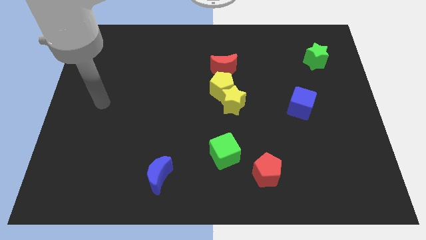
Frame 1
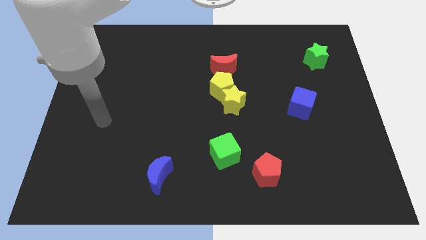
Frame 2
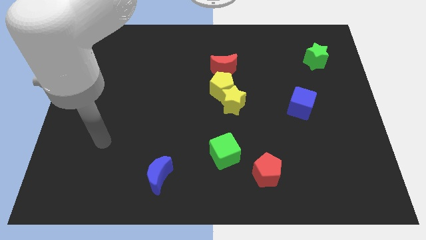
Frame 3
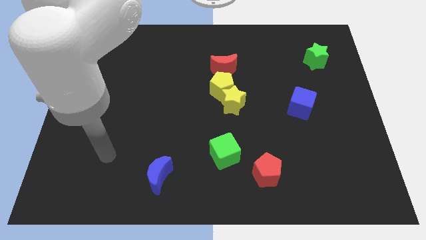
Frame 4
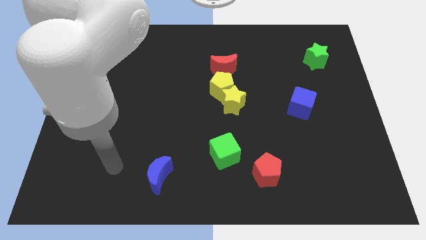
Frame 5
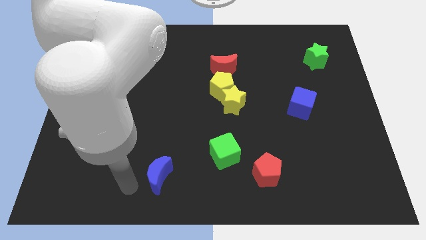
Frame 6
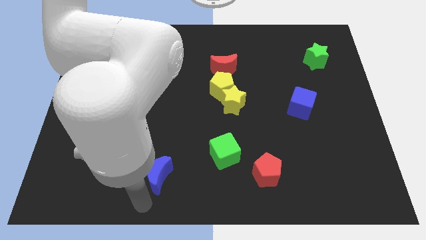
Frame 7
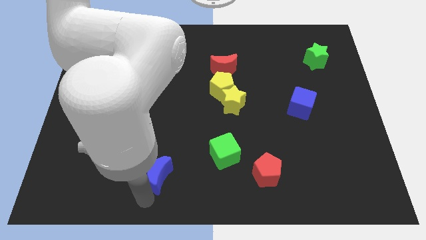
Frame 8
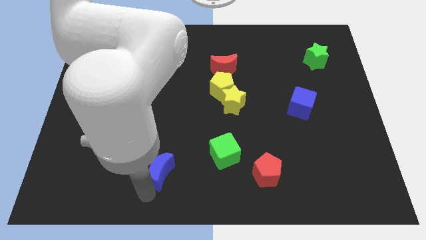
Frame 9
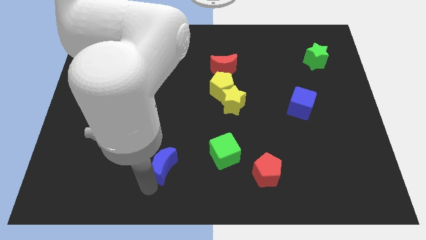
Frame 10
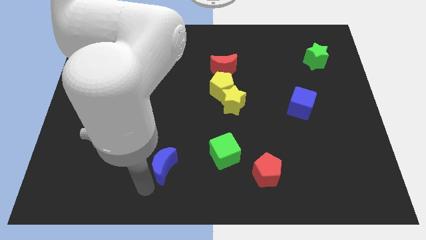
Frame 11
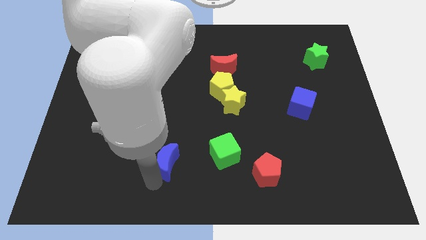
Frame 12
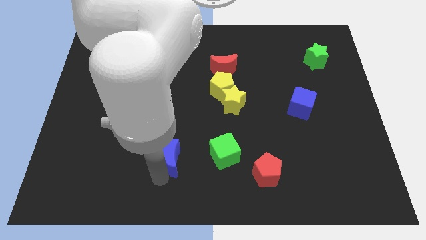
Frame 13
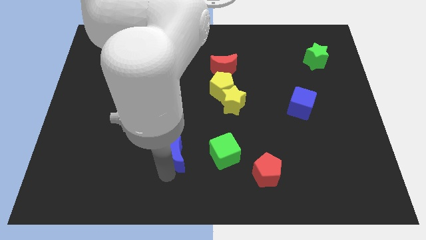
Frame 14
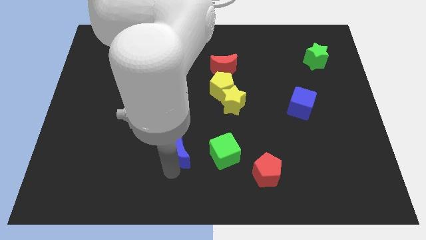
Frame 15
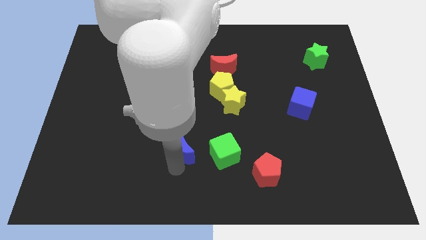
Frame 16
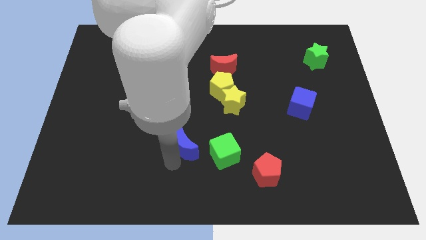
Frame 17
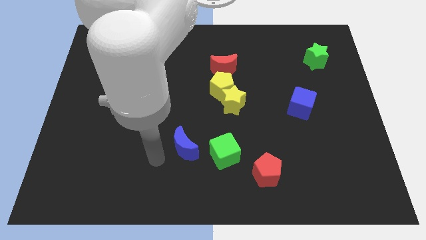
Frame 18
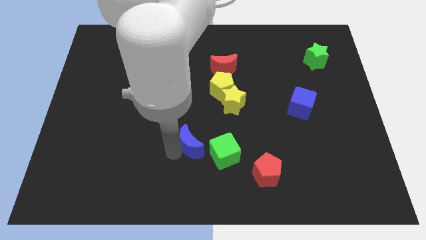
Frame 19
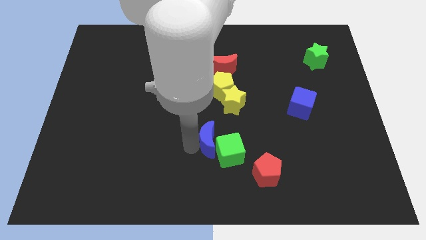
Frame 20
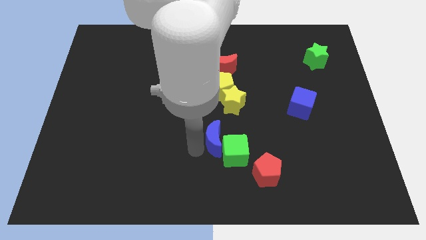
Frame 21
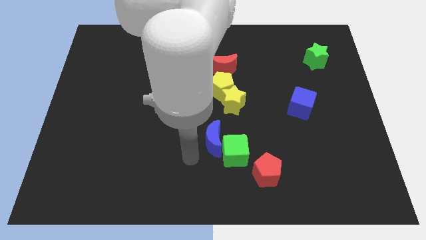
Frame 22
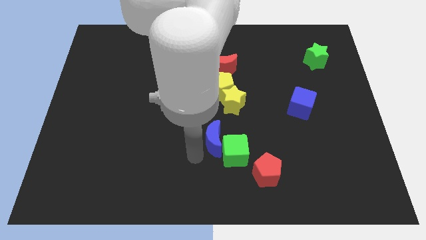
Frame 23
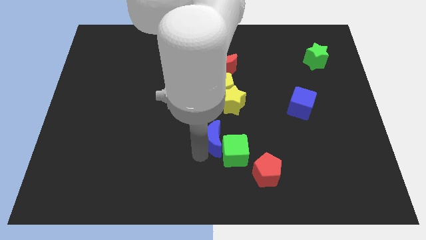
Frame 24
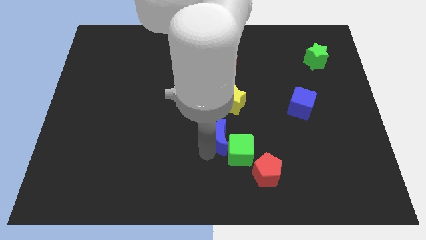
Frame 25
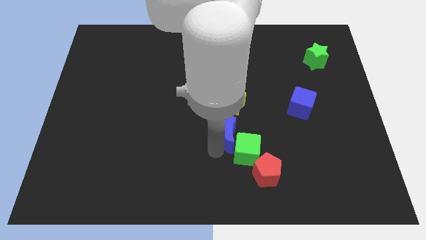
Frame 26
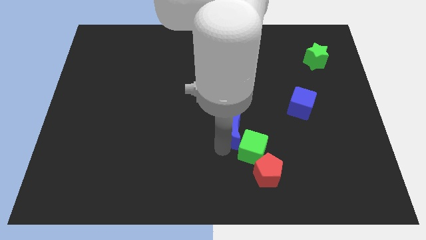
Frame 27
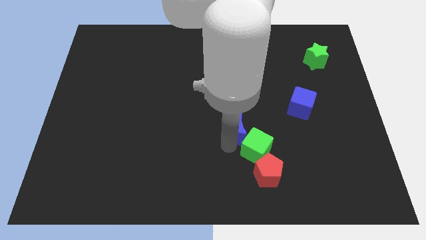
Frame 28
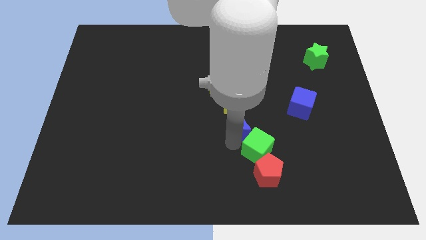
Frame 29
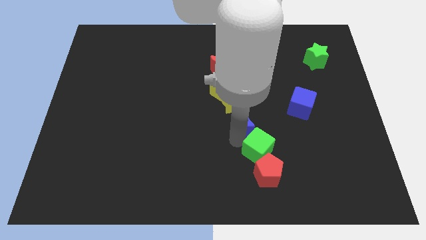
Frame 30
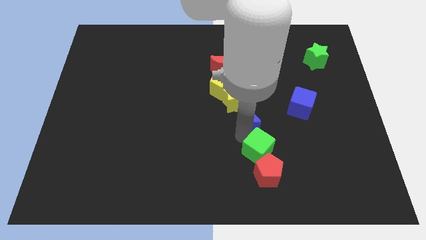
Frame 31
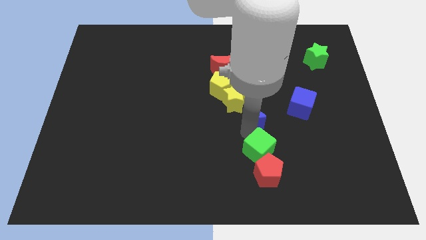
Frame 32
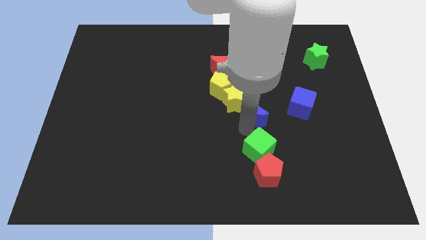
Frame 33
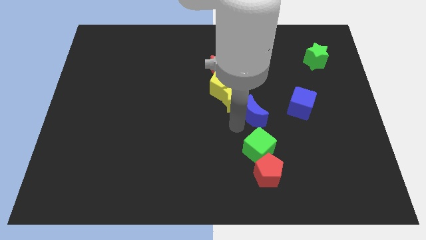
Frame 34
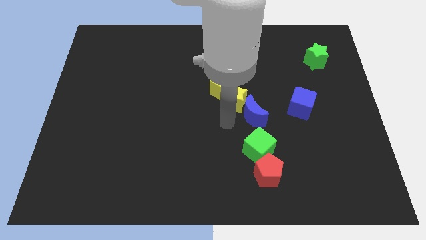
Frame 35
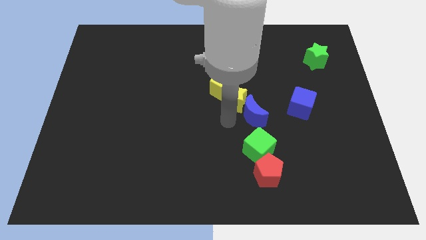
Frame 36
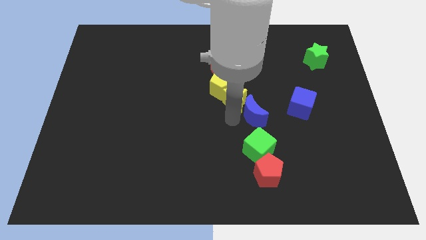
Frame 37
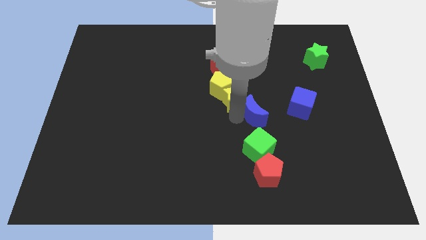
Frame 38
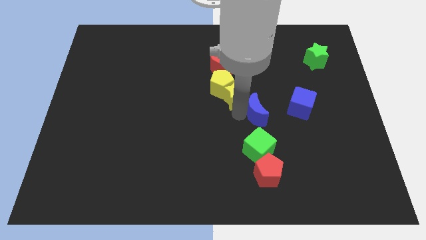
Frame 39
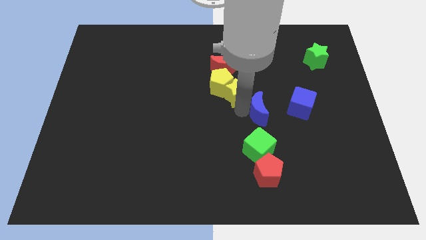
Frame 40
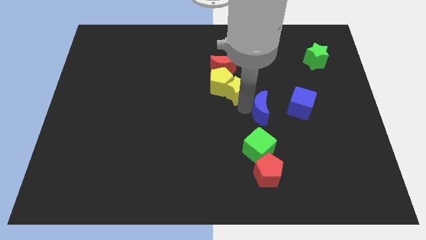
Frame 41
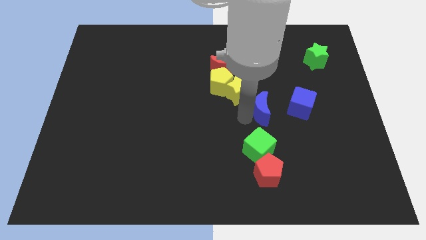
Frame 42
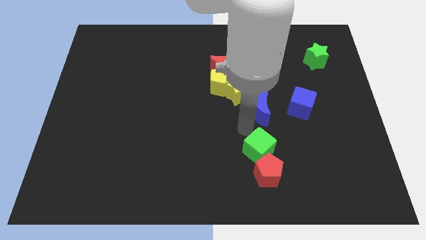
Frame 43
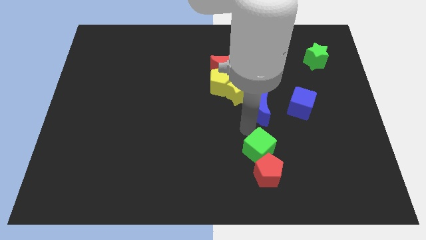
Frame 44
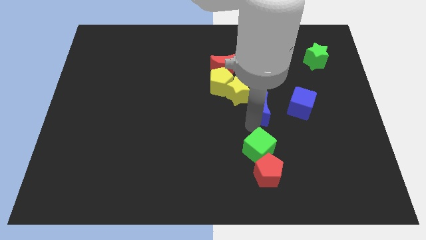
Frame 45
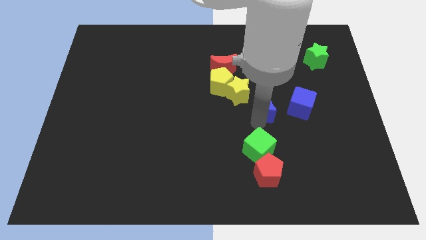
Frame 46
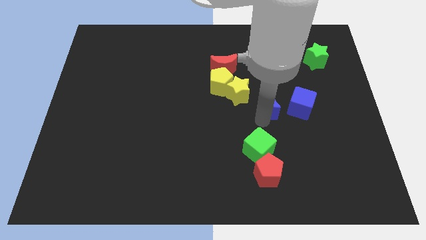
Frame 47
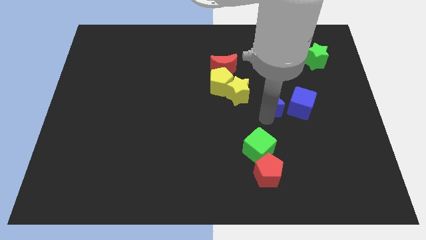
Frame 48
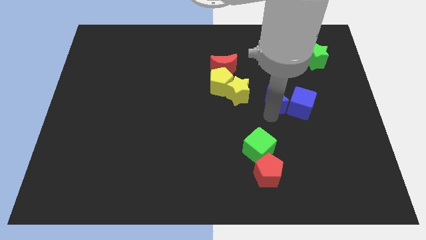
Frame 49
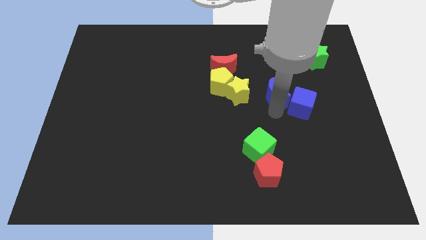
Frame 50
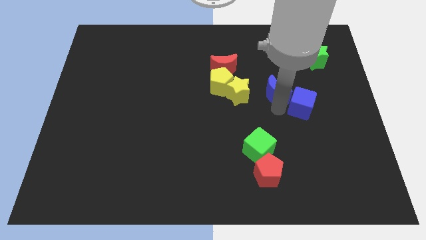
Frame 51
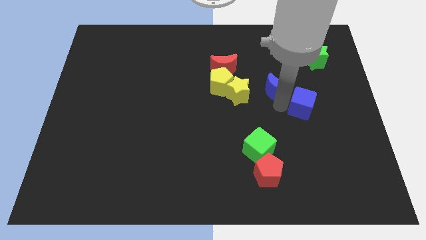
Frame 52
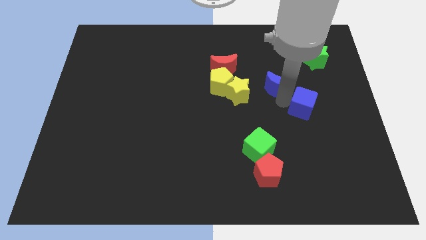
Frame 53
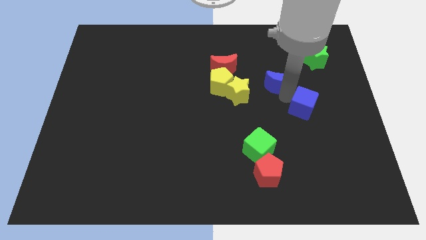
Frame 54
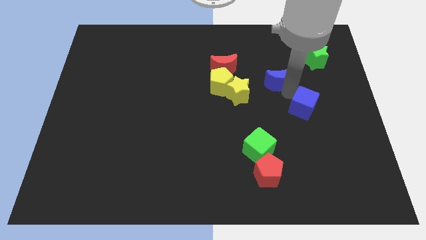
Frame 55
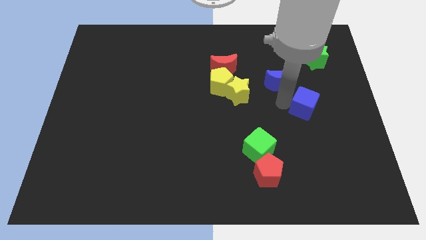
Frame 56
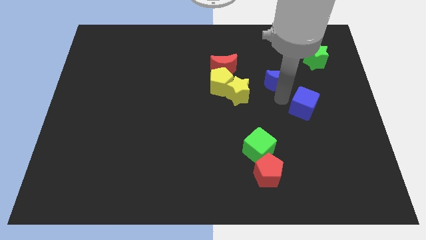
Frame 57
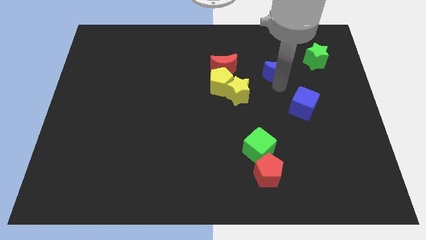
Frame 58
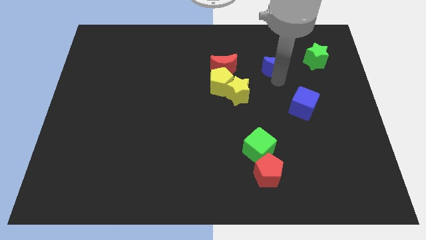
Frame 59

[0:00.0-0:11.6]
slide the blue moon to the left of the green star

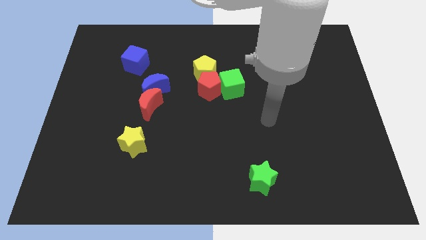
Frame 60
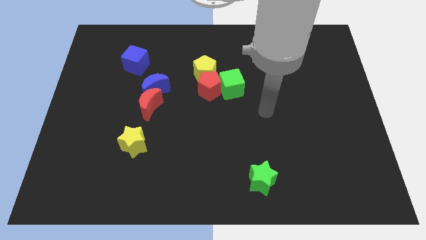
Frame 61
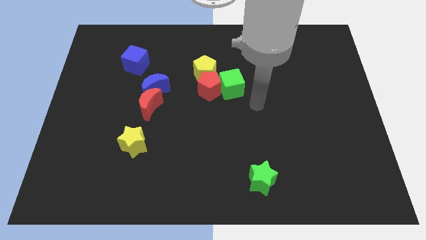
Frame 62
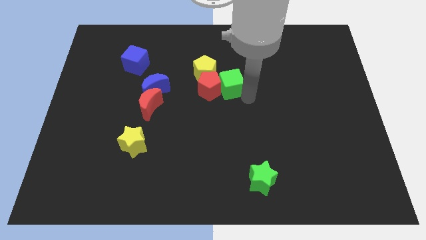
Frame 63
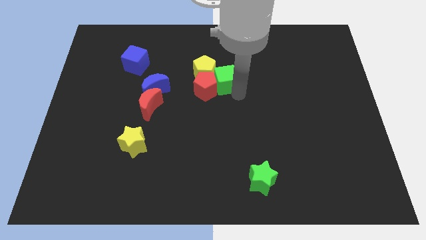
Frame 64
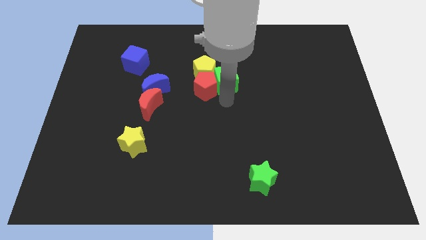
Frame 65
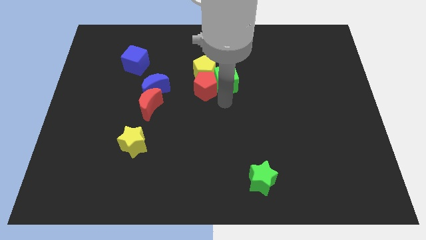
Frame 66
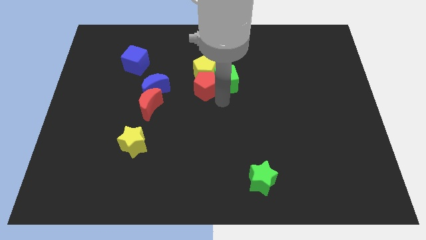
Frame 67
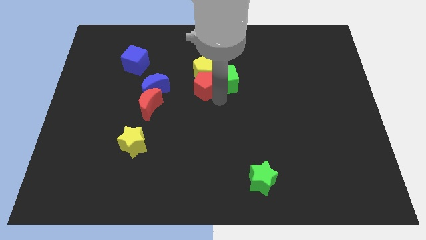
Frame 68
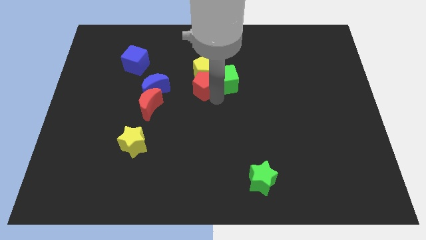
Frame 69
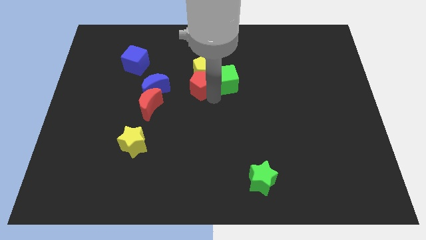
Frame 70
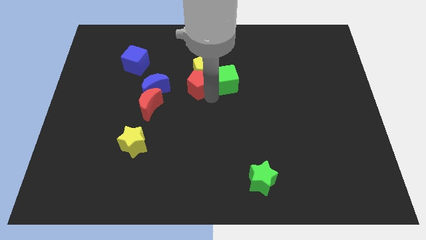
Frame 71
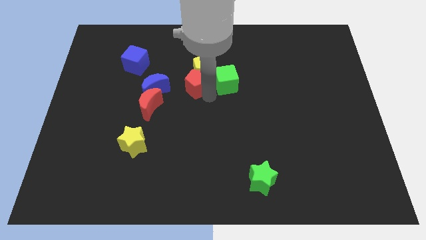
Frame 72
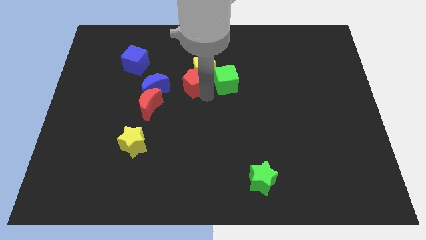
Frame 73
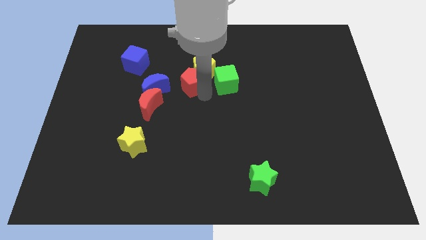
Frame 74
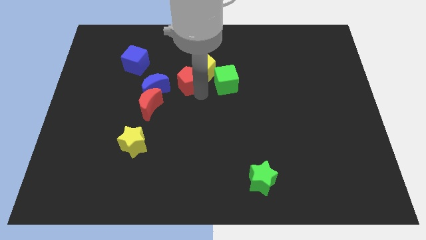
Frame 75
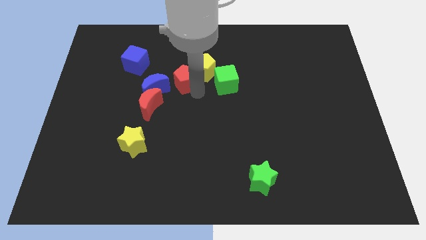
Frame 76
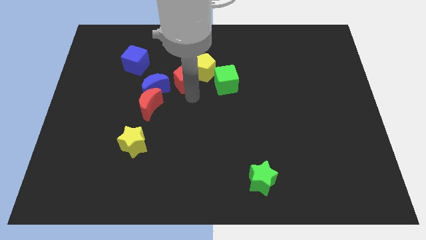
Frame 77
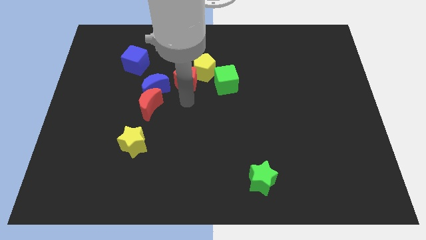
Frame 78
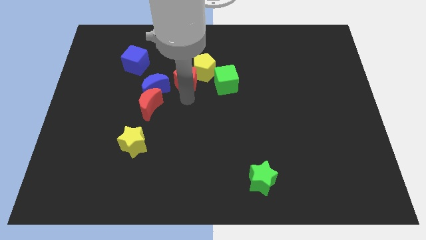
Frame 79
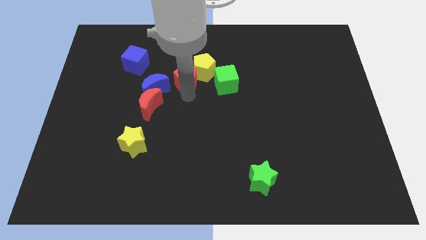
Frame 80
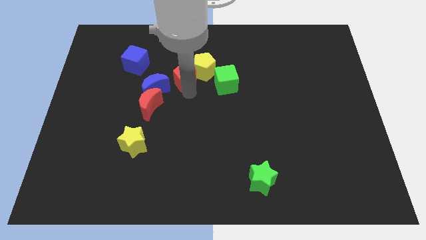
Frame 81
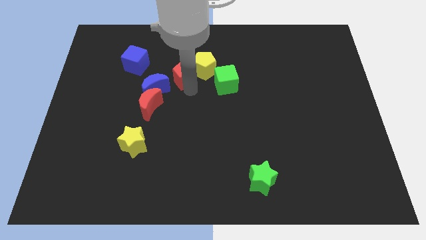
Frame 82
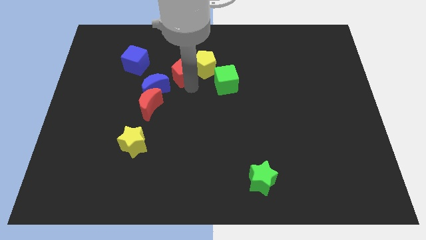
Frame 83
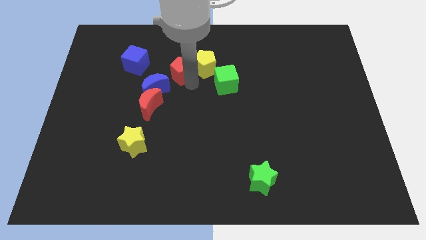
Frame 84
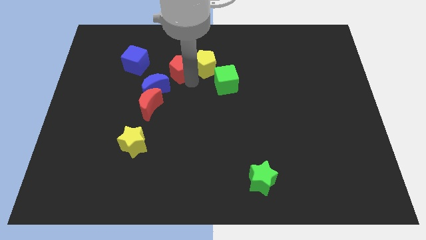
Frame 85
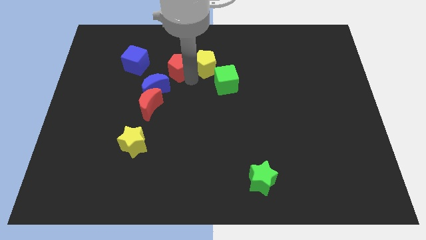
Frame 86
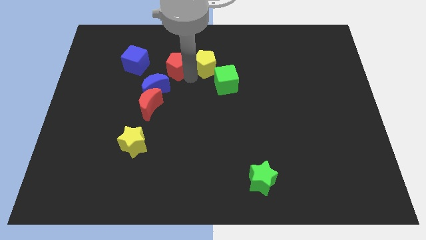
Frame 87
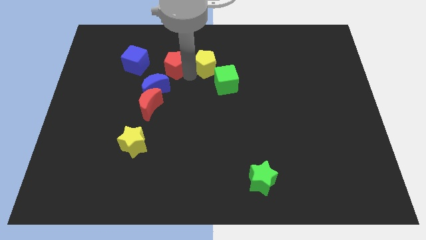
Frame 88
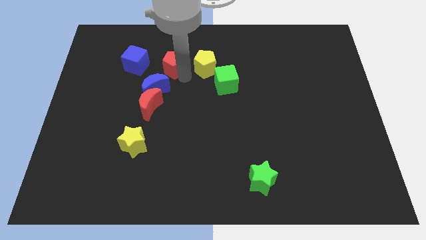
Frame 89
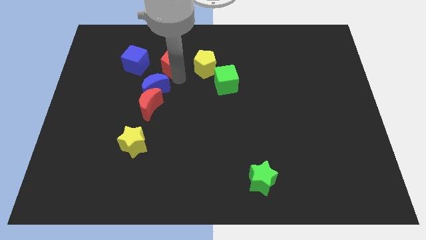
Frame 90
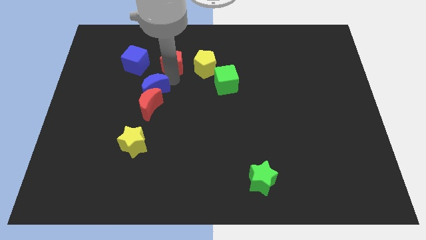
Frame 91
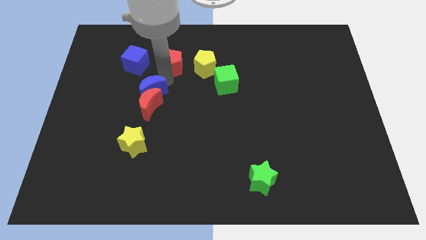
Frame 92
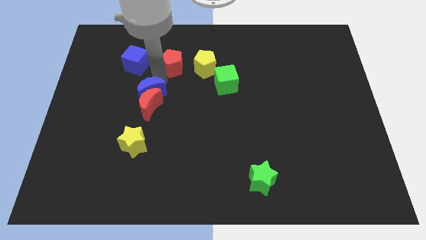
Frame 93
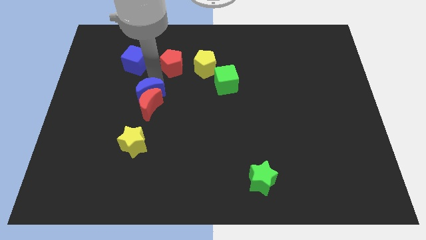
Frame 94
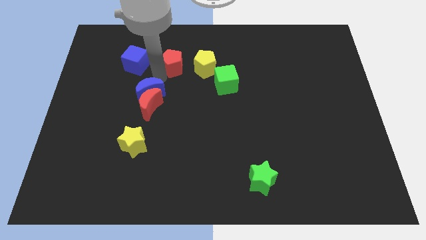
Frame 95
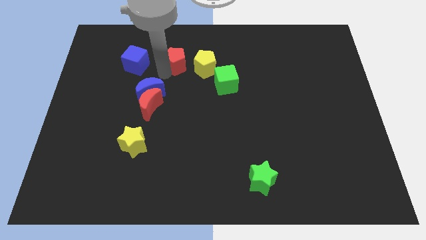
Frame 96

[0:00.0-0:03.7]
slide the red pentagon to the top left side of the yellow pentagon
